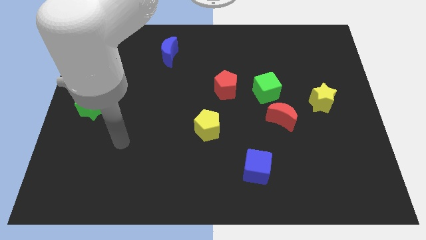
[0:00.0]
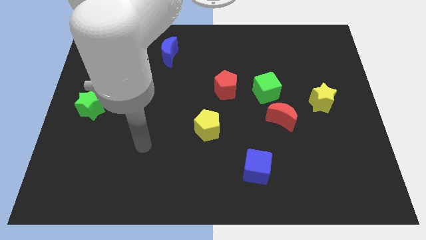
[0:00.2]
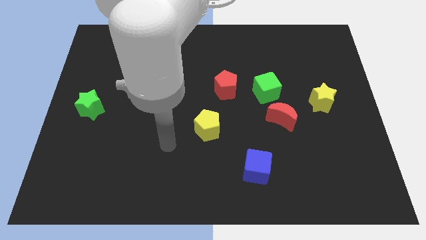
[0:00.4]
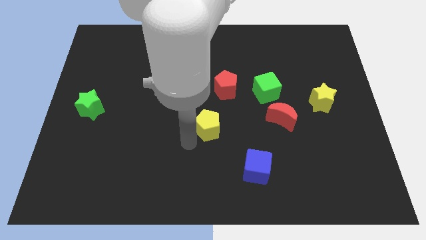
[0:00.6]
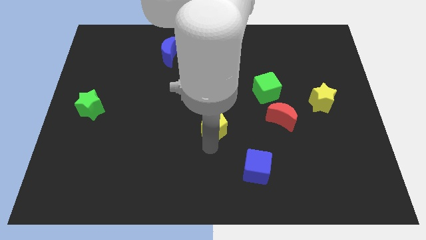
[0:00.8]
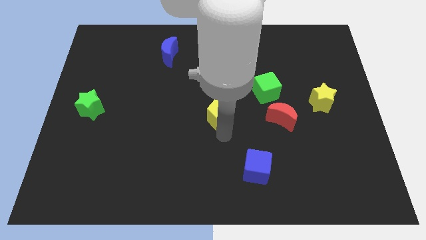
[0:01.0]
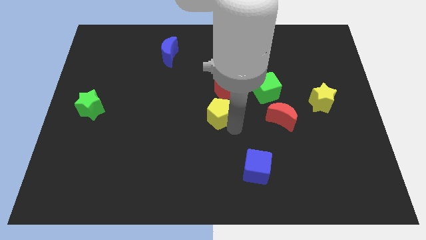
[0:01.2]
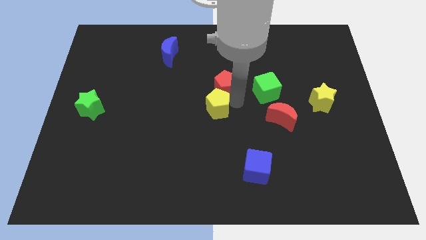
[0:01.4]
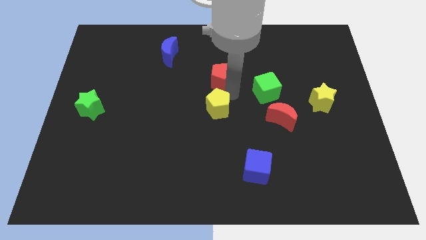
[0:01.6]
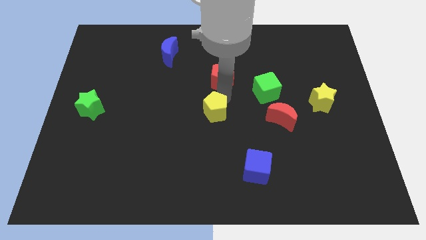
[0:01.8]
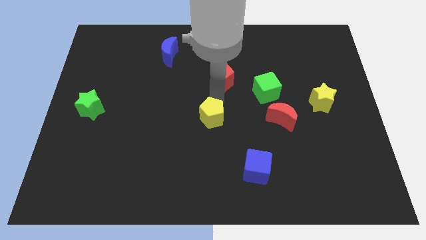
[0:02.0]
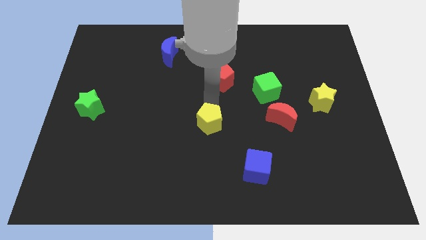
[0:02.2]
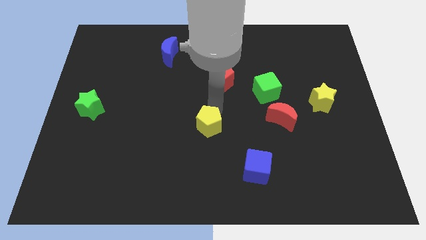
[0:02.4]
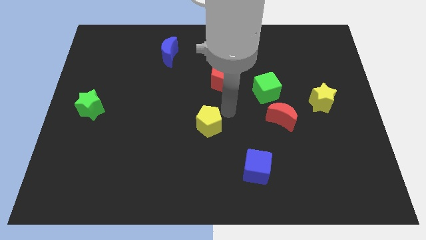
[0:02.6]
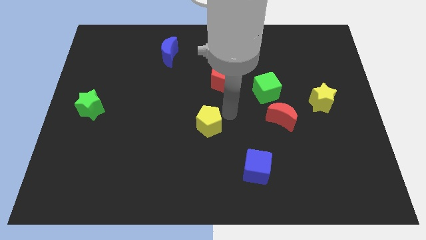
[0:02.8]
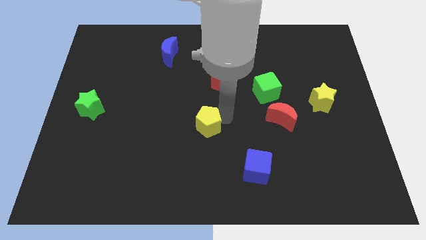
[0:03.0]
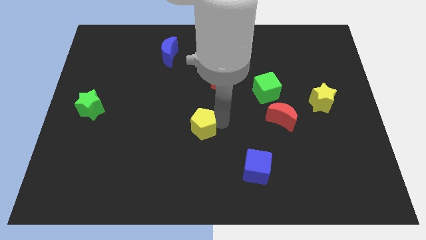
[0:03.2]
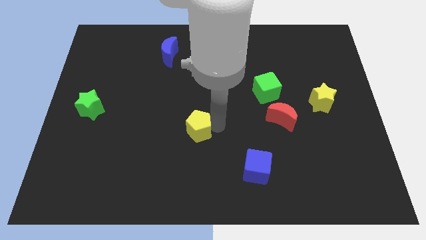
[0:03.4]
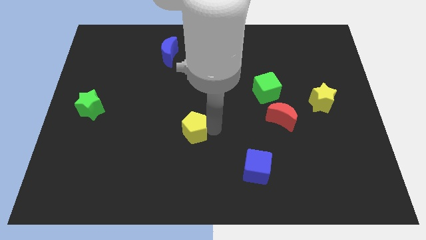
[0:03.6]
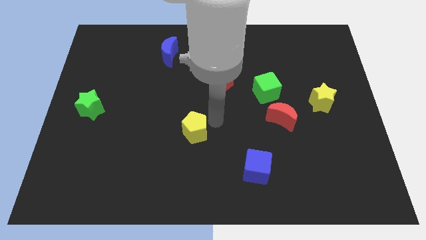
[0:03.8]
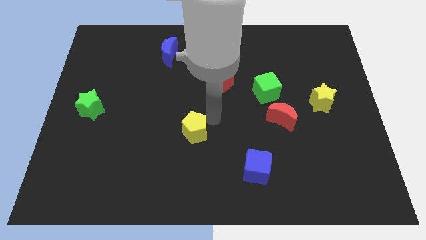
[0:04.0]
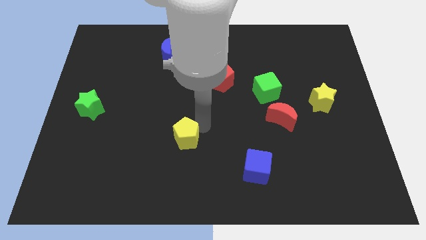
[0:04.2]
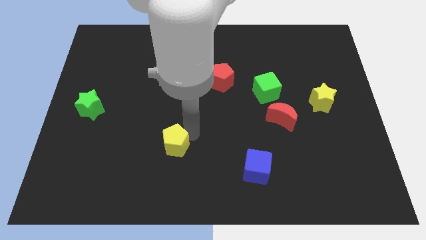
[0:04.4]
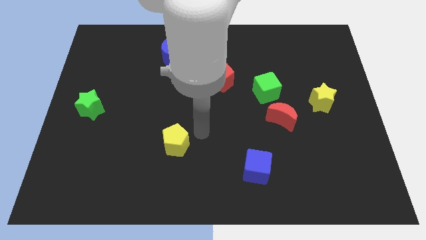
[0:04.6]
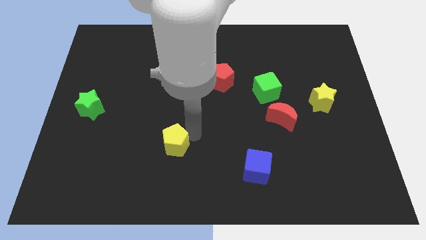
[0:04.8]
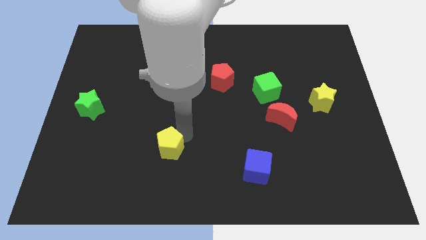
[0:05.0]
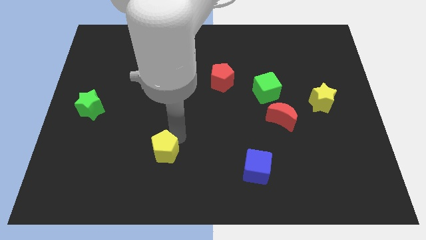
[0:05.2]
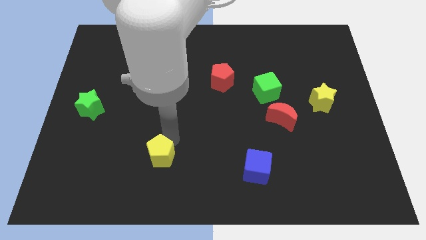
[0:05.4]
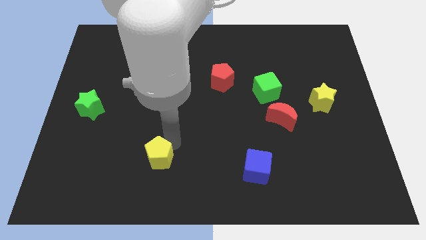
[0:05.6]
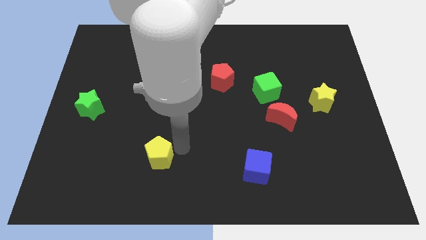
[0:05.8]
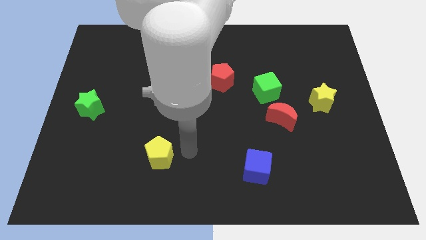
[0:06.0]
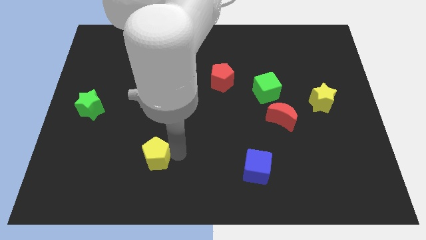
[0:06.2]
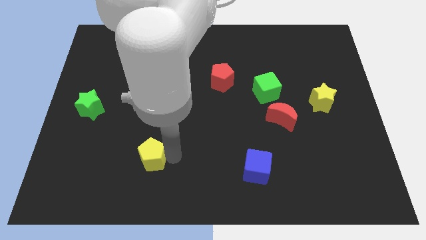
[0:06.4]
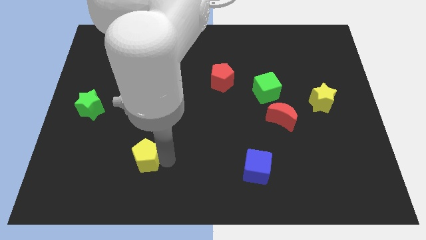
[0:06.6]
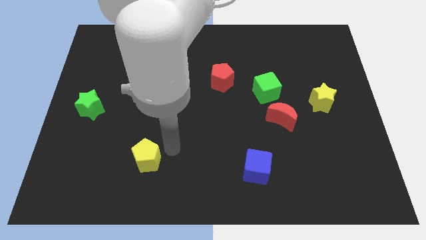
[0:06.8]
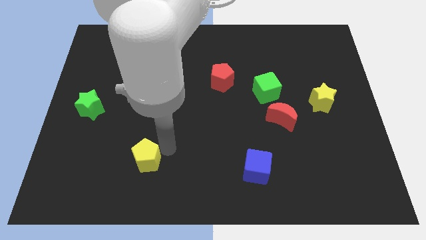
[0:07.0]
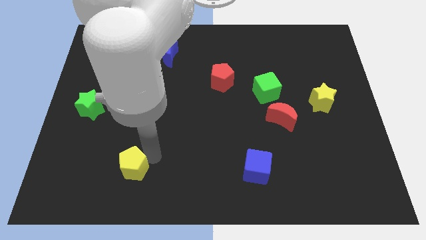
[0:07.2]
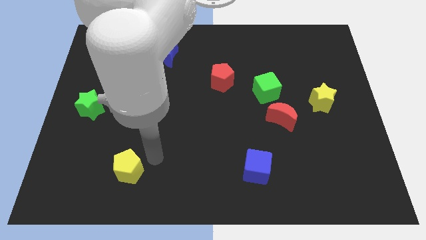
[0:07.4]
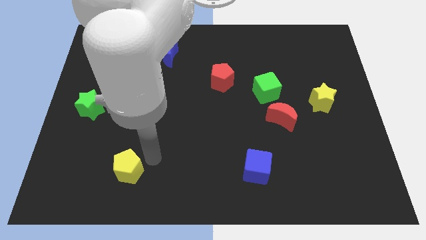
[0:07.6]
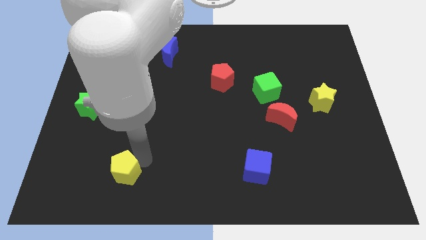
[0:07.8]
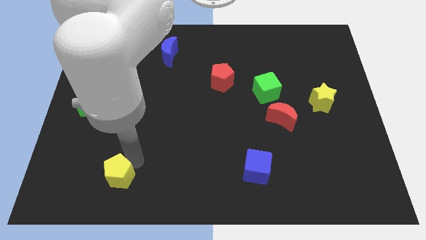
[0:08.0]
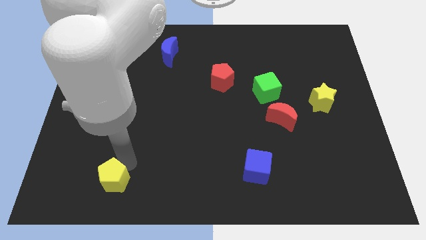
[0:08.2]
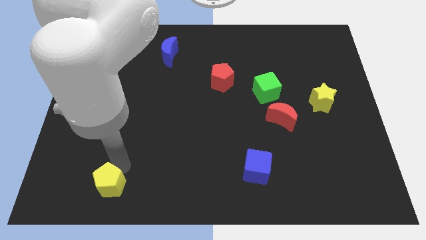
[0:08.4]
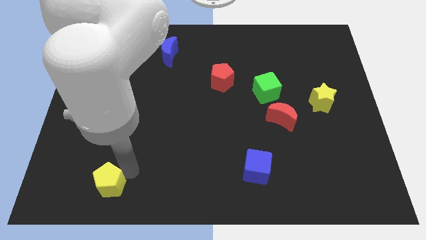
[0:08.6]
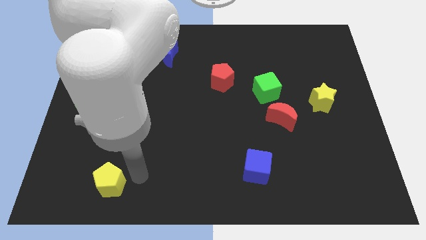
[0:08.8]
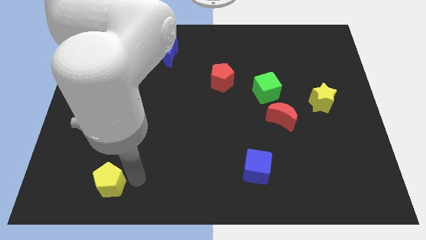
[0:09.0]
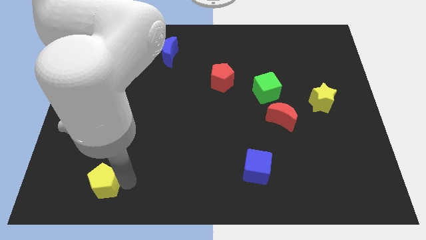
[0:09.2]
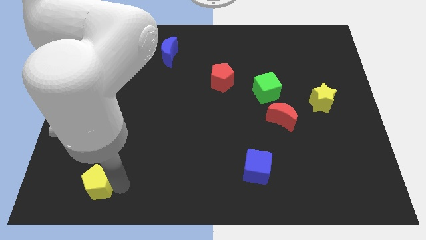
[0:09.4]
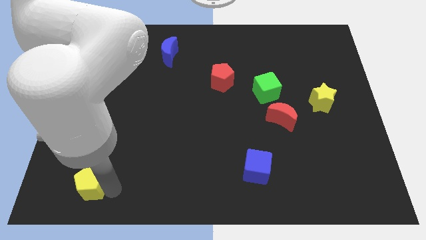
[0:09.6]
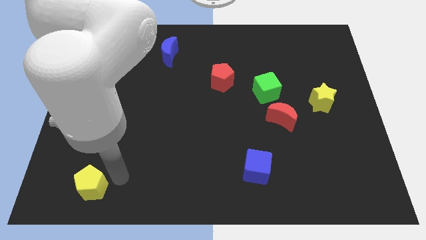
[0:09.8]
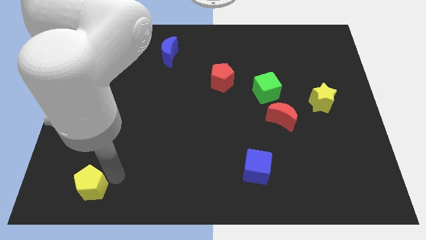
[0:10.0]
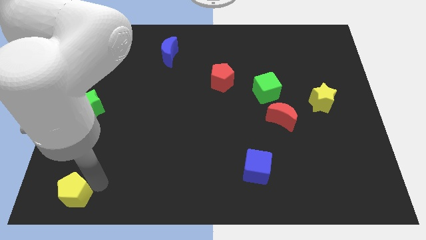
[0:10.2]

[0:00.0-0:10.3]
put the yellow pentagon to the bottom left

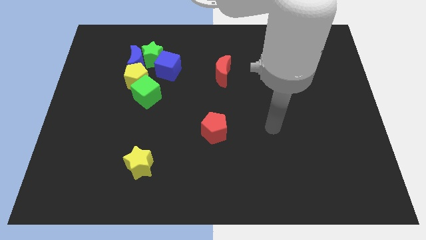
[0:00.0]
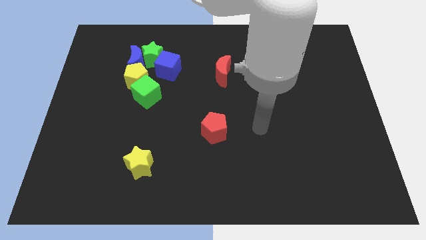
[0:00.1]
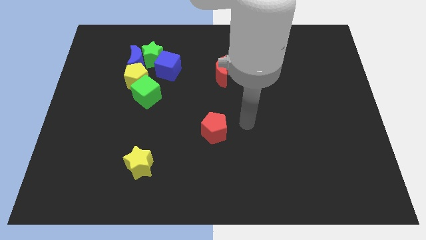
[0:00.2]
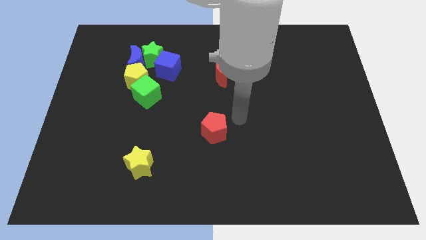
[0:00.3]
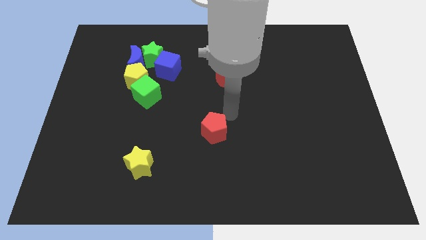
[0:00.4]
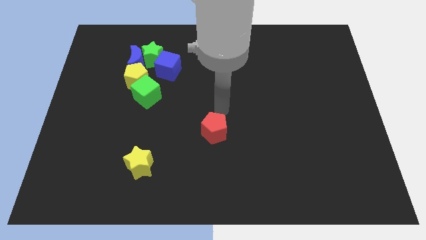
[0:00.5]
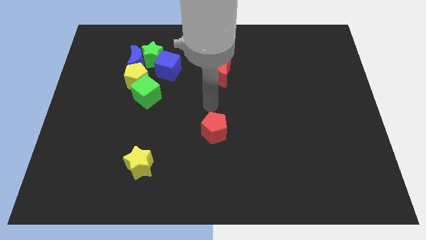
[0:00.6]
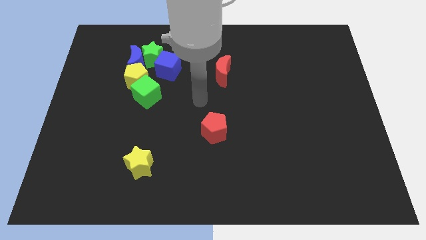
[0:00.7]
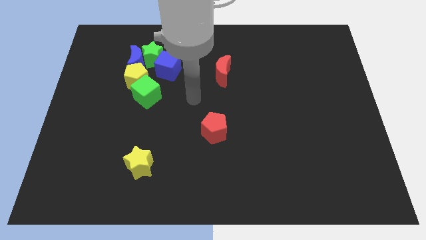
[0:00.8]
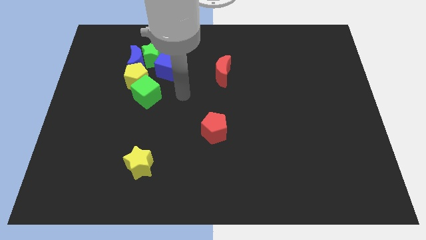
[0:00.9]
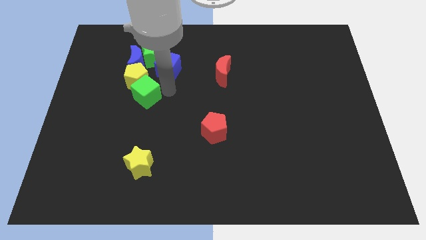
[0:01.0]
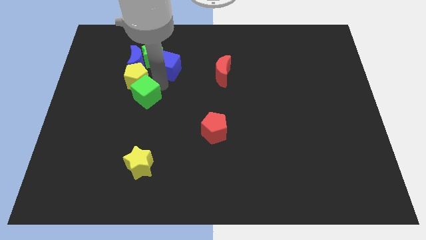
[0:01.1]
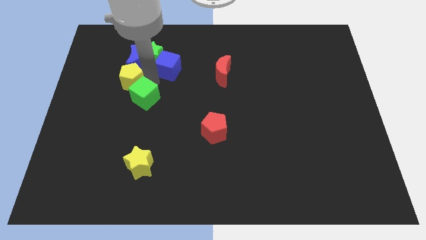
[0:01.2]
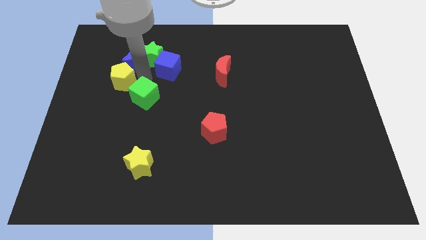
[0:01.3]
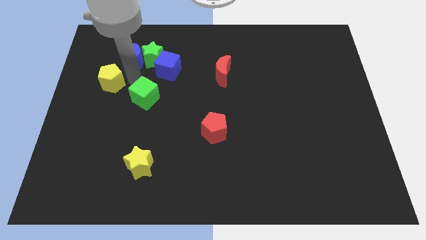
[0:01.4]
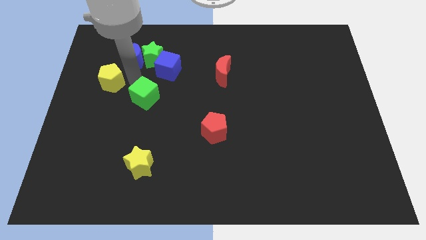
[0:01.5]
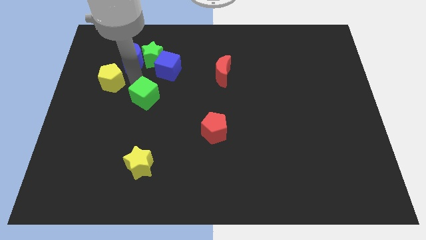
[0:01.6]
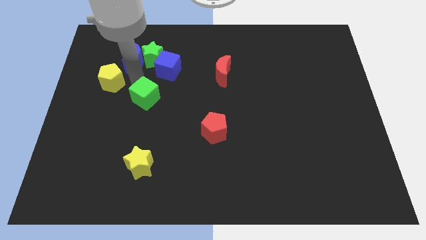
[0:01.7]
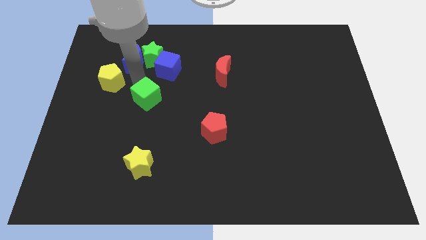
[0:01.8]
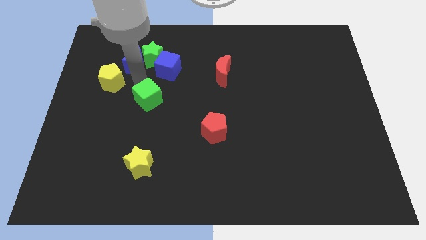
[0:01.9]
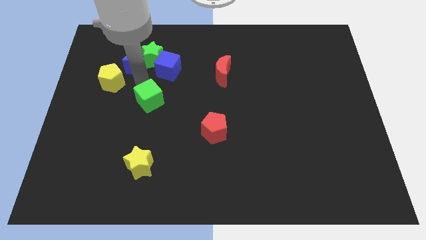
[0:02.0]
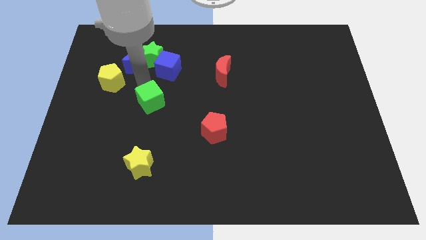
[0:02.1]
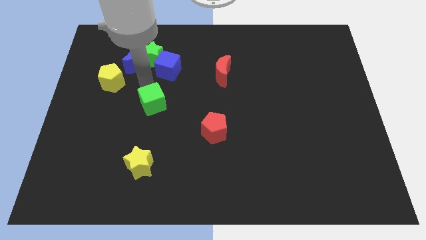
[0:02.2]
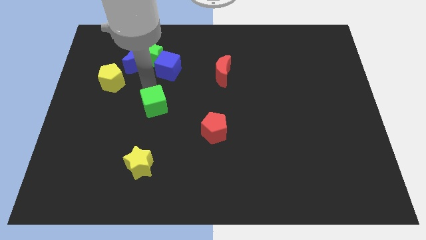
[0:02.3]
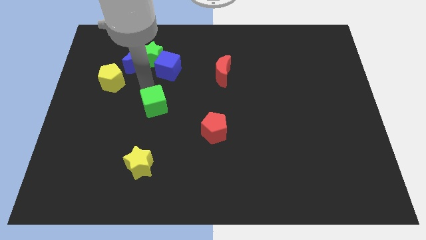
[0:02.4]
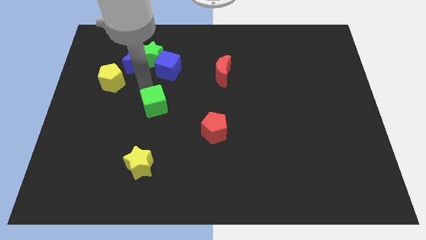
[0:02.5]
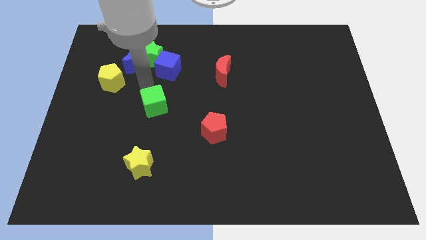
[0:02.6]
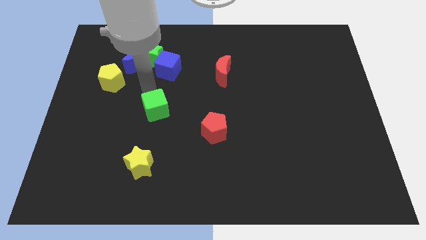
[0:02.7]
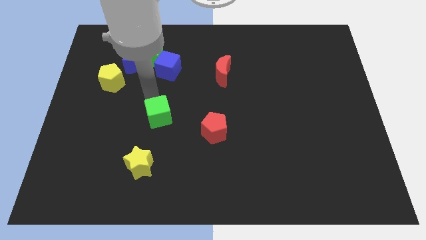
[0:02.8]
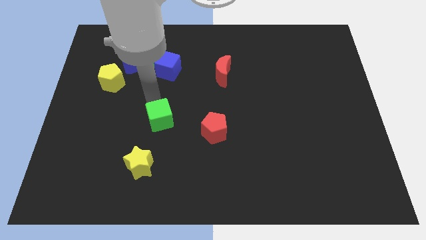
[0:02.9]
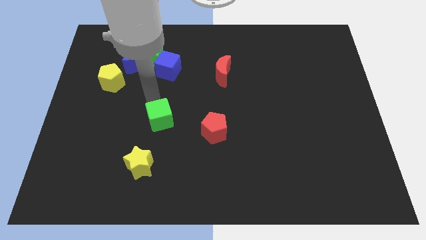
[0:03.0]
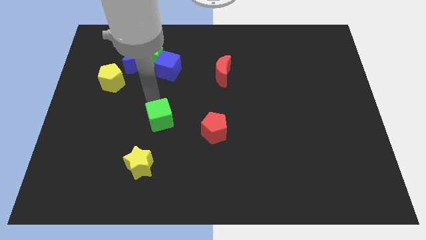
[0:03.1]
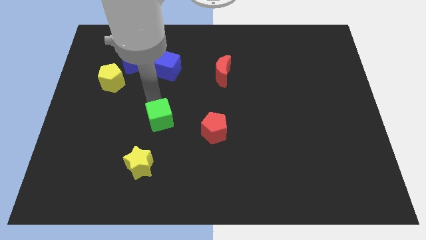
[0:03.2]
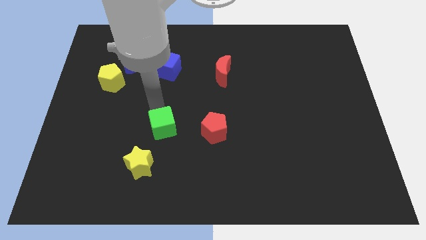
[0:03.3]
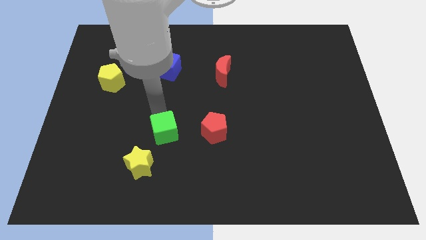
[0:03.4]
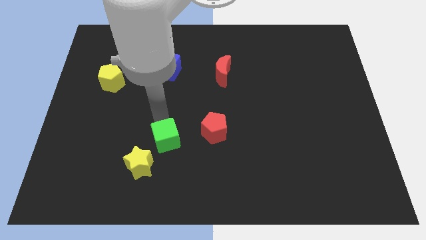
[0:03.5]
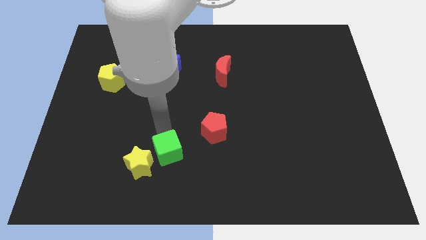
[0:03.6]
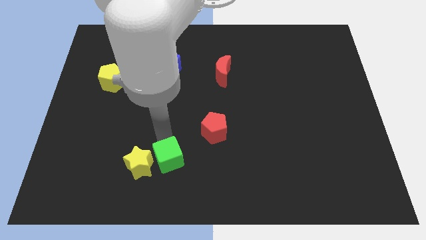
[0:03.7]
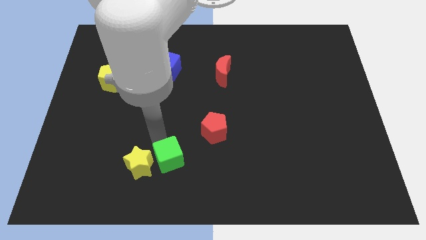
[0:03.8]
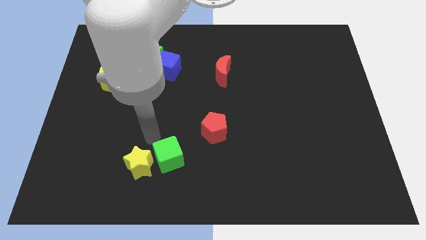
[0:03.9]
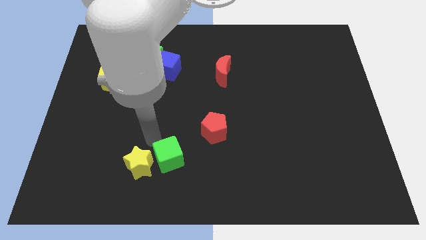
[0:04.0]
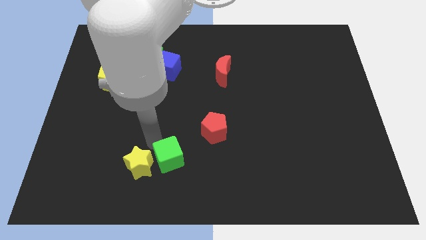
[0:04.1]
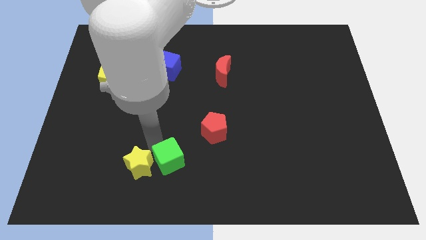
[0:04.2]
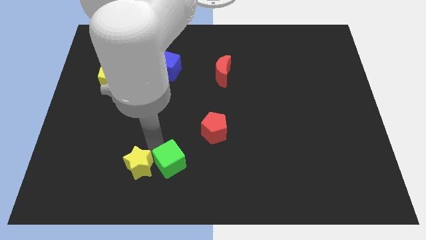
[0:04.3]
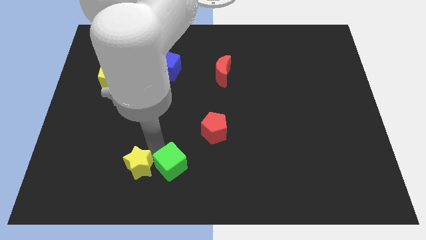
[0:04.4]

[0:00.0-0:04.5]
move the green cube to the bottom
